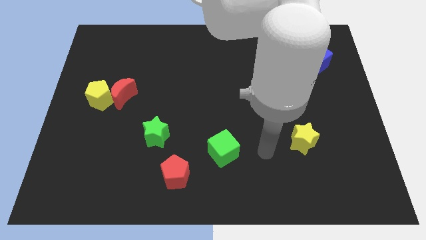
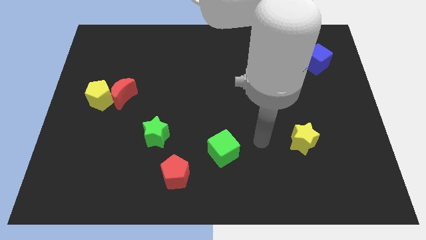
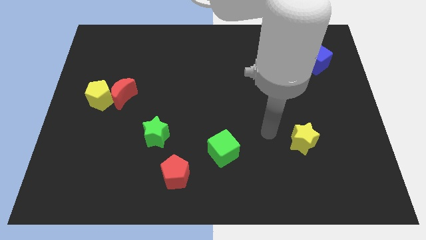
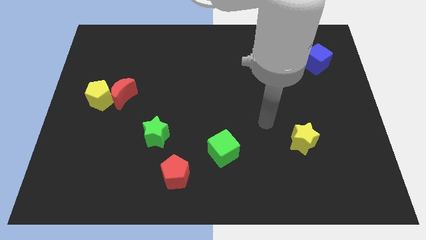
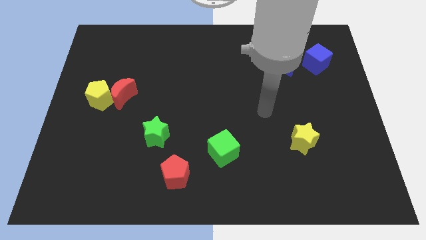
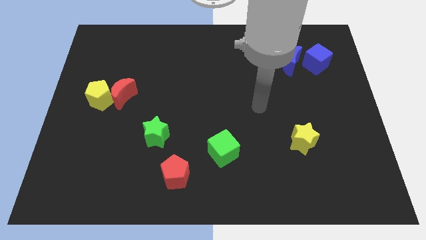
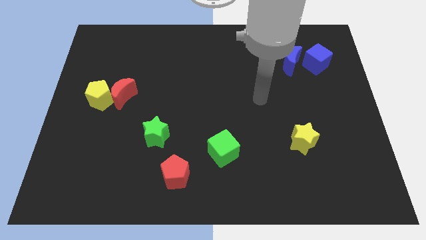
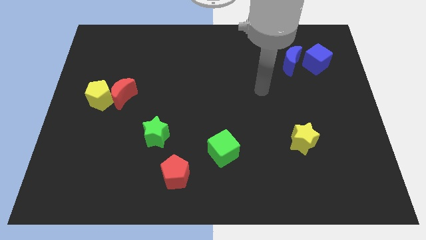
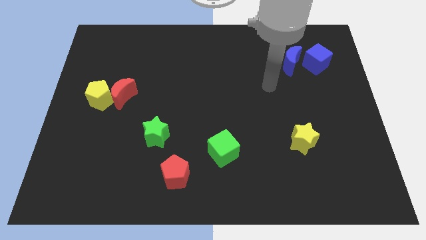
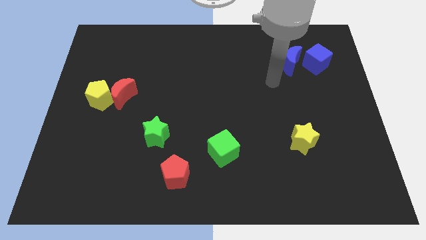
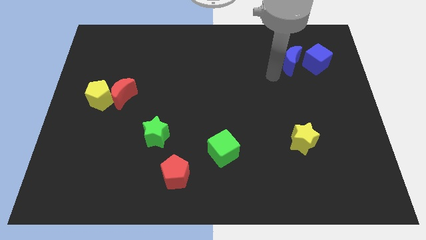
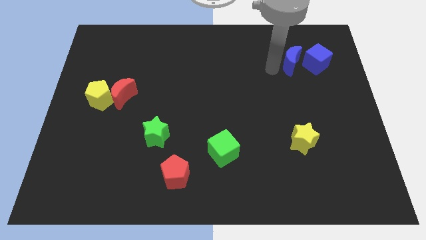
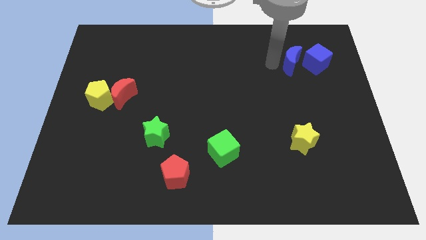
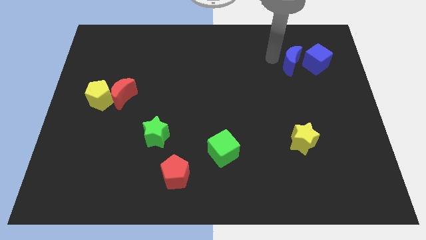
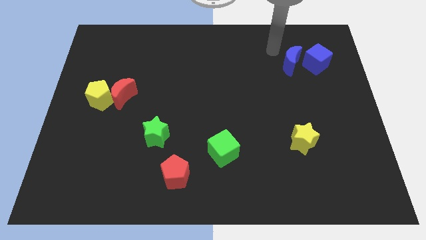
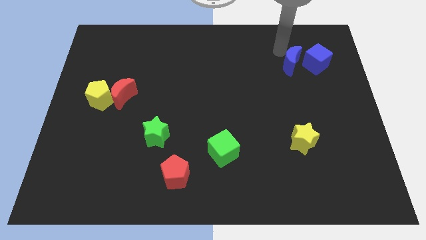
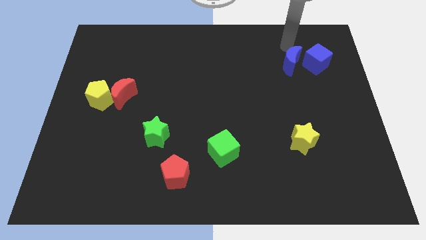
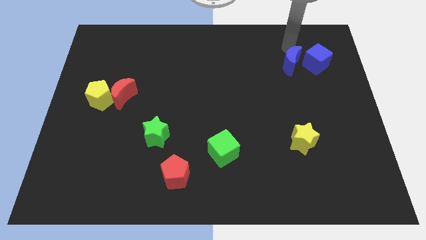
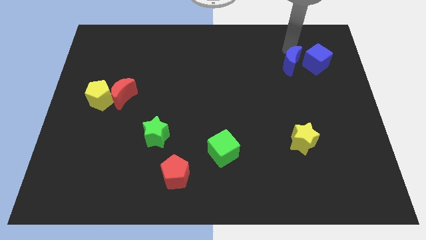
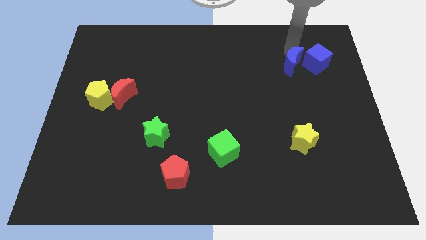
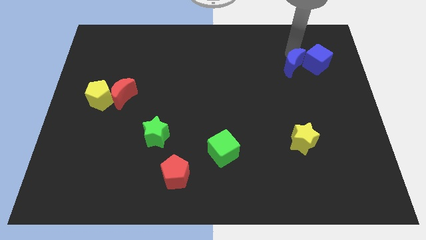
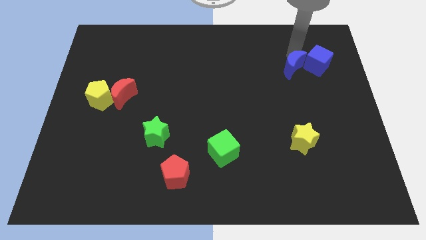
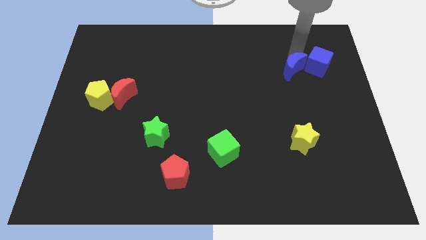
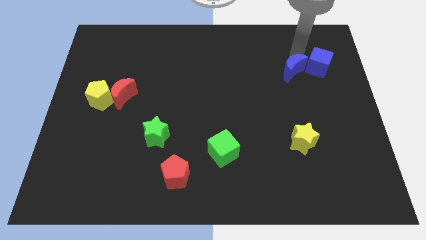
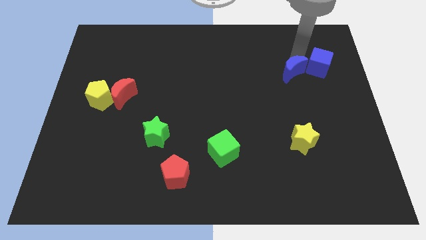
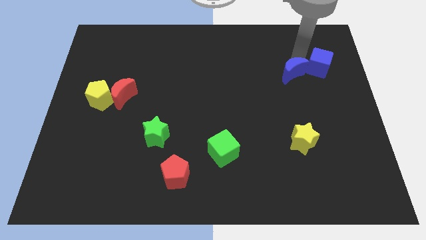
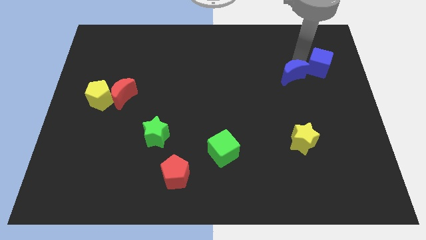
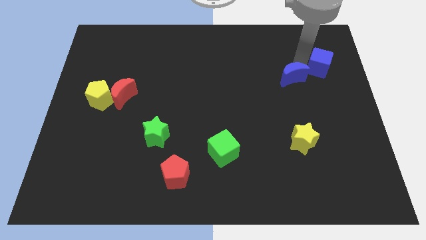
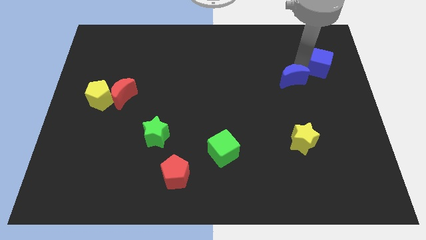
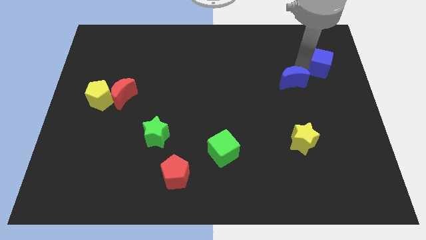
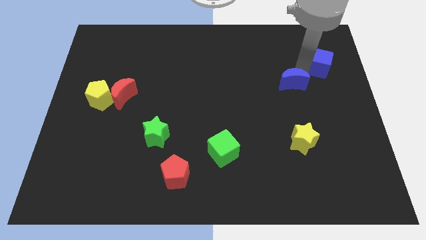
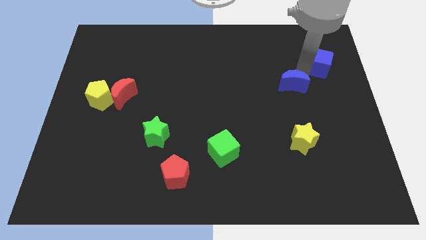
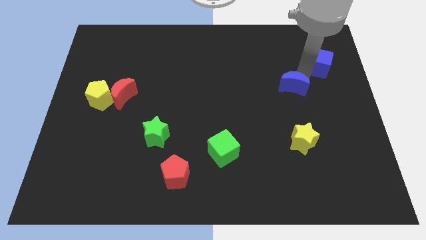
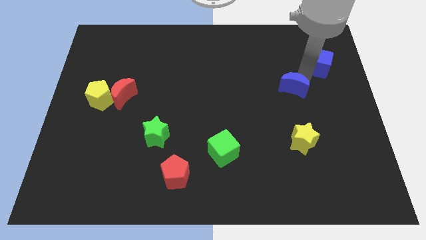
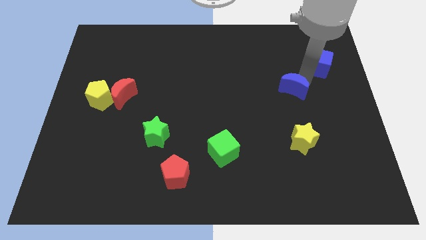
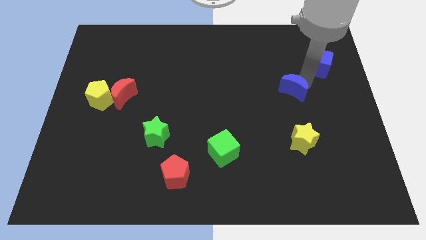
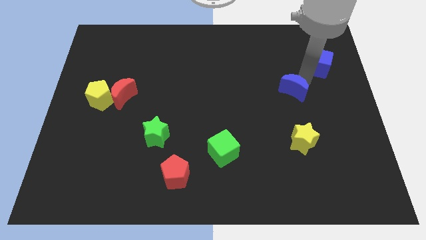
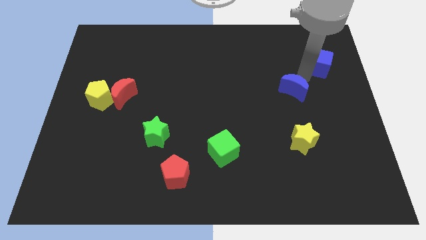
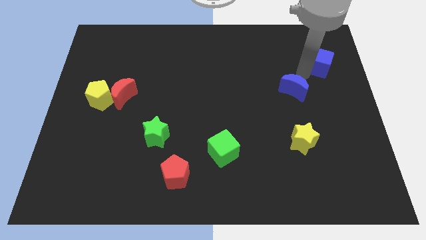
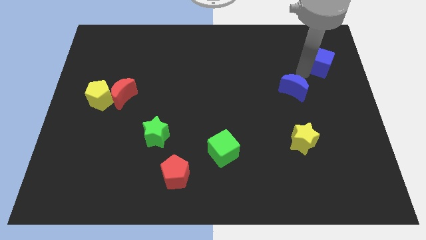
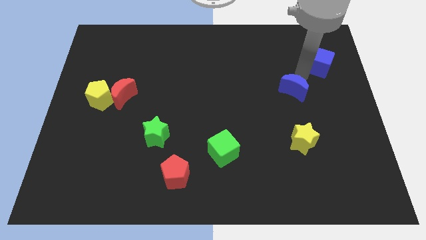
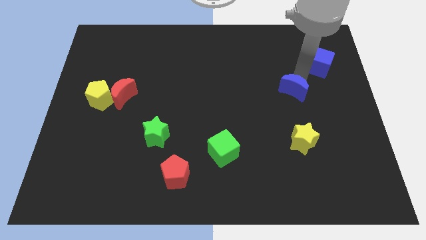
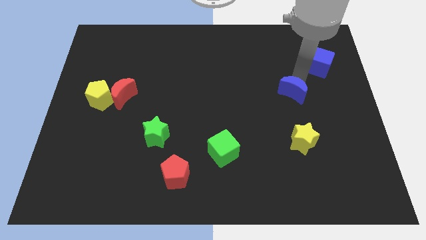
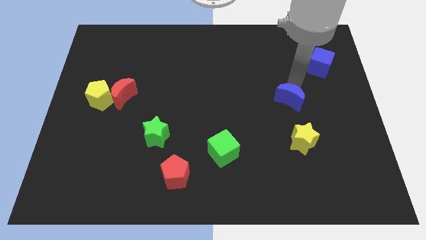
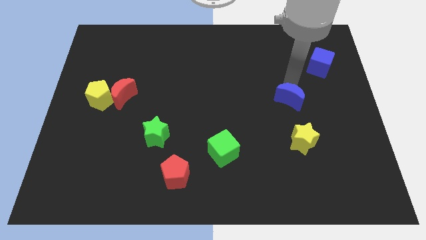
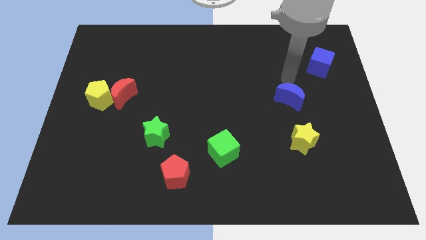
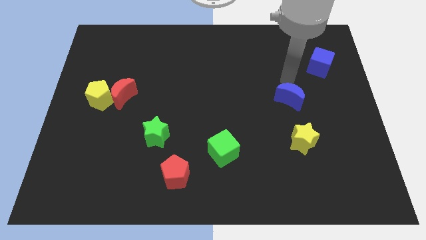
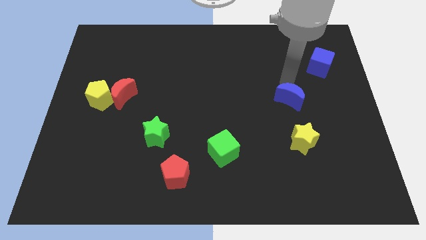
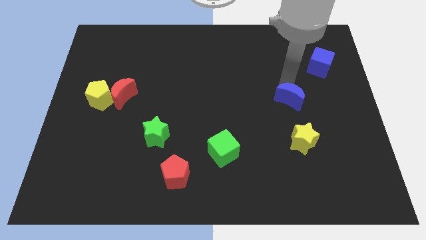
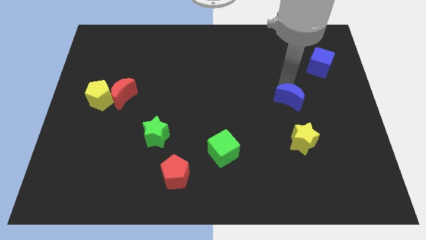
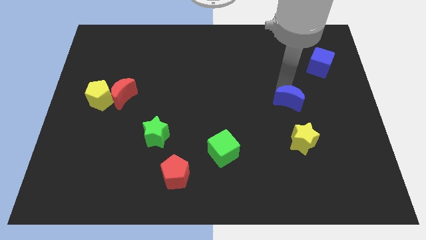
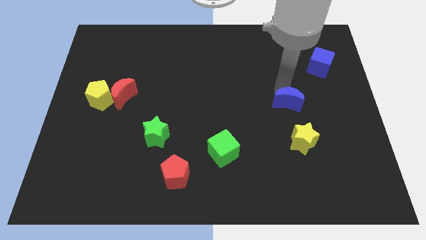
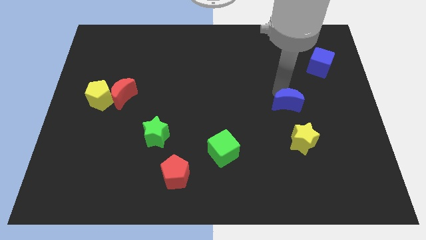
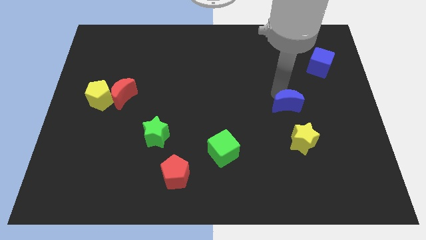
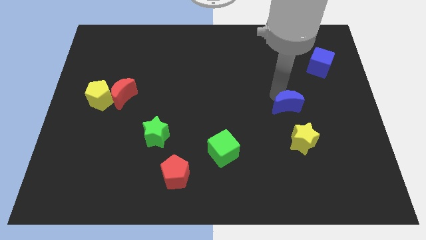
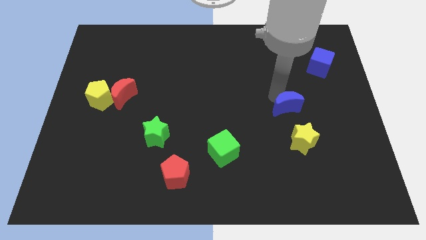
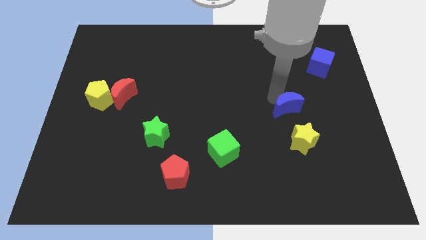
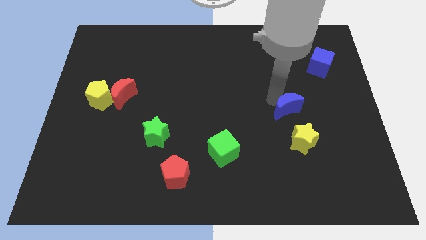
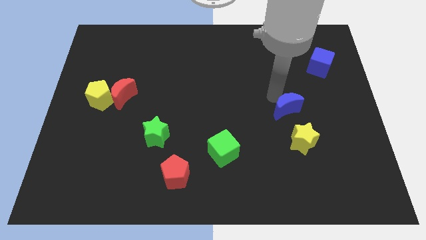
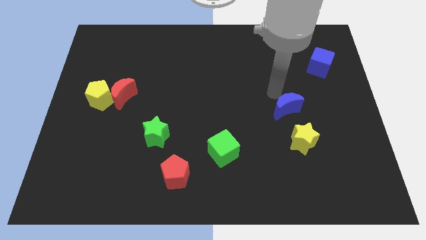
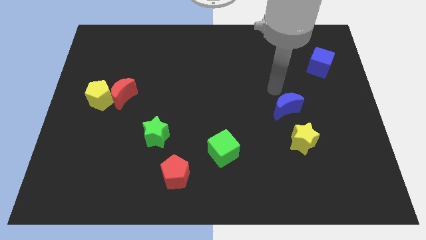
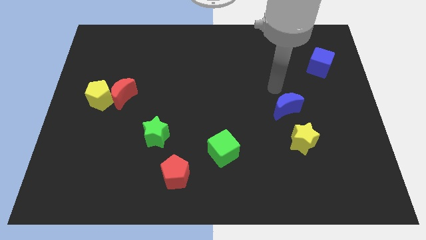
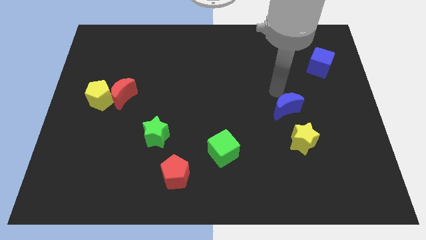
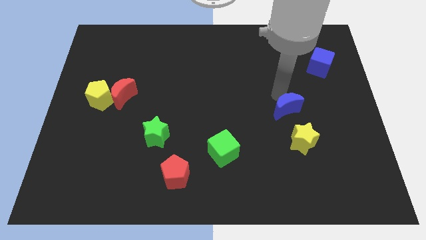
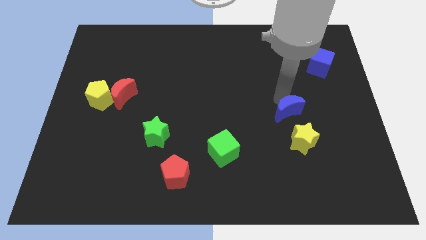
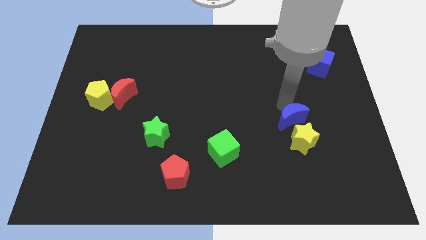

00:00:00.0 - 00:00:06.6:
push the blue moon towards the yellow star

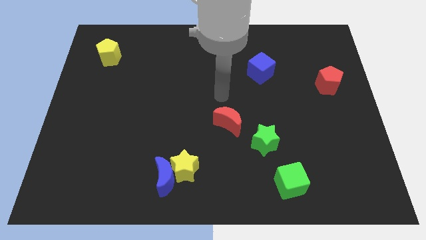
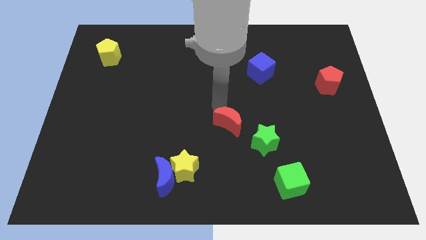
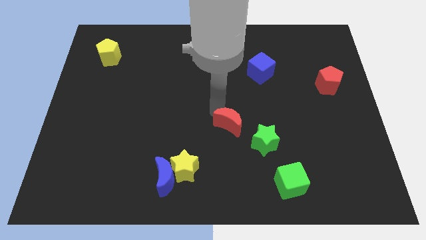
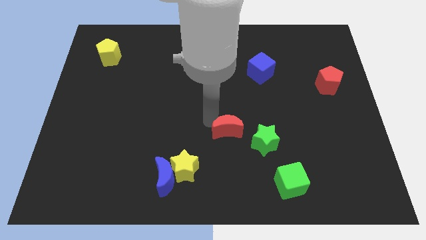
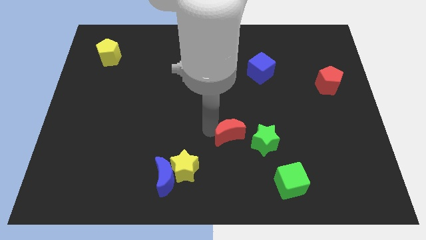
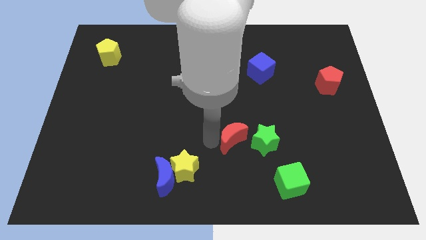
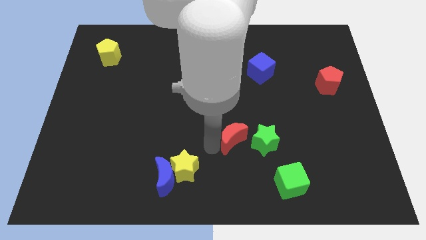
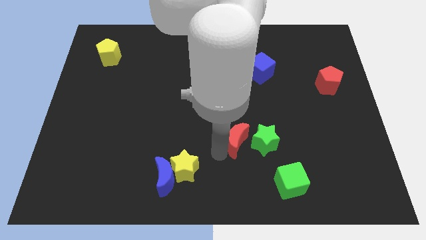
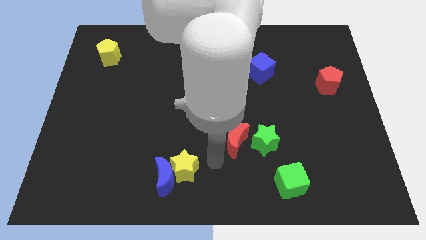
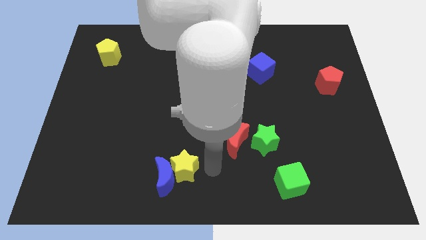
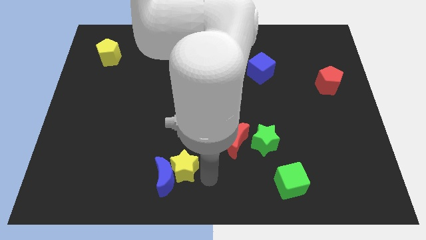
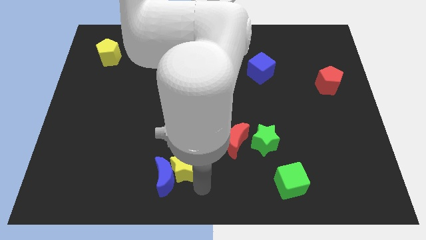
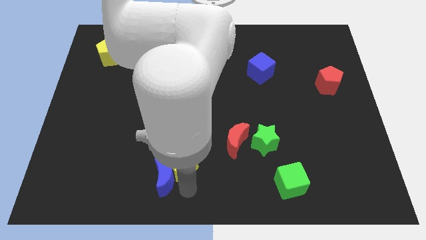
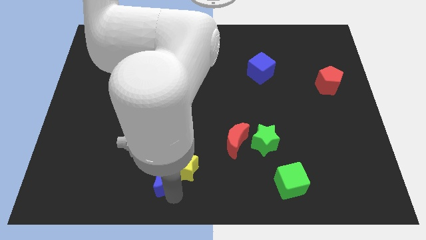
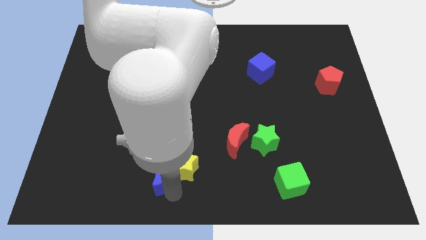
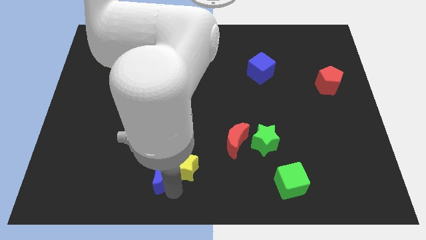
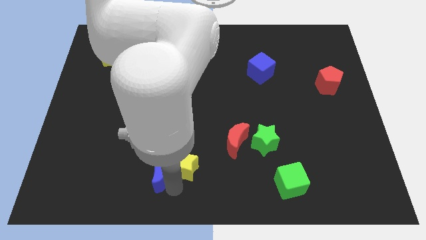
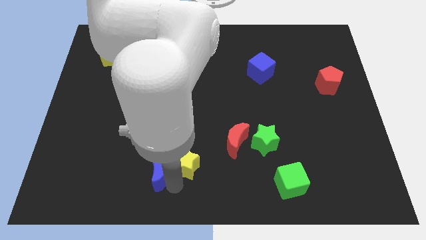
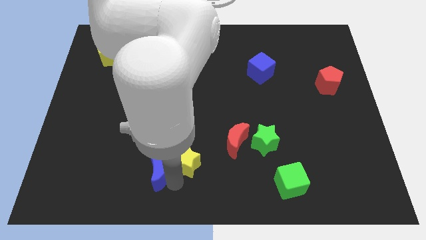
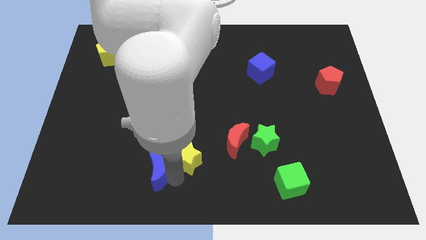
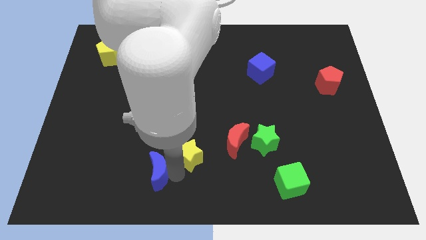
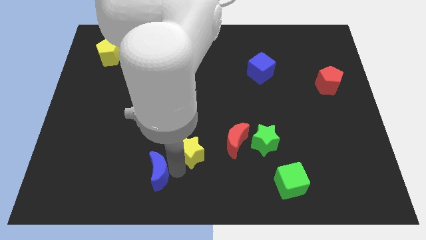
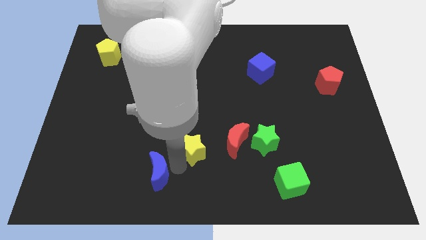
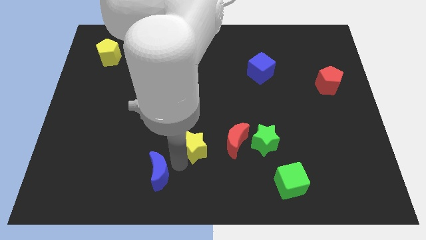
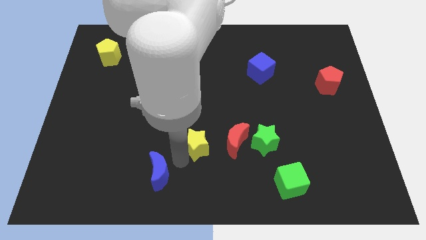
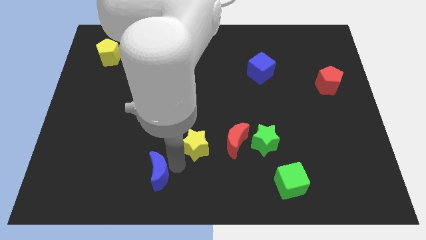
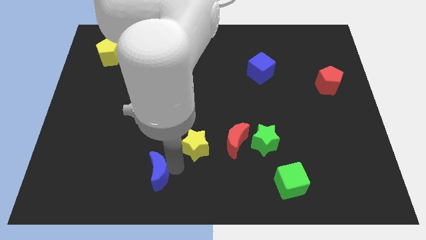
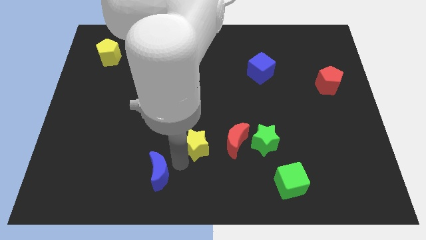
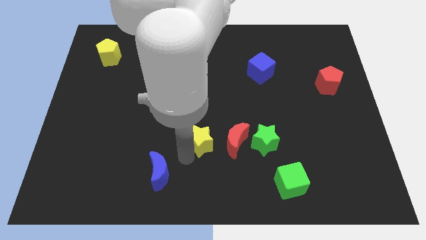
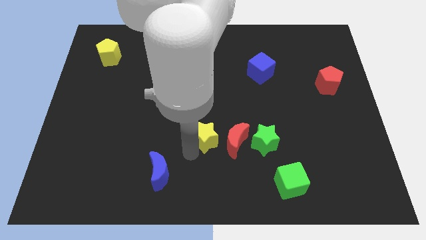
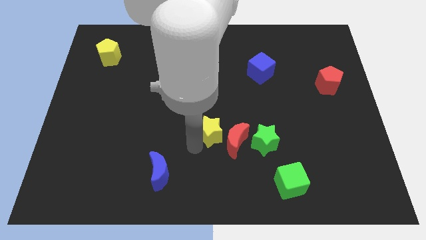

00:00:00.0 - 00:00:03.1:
move the yellow star to the red moon
